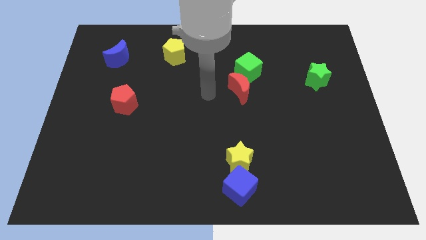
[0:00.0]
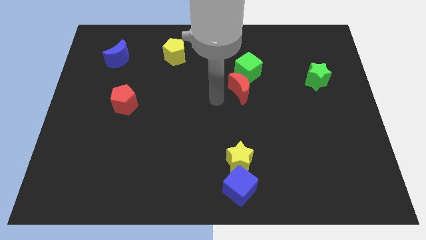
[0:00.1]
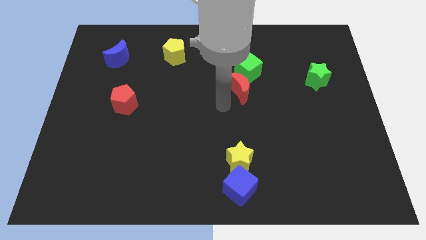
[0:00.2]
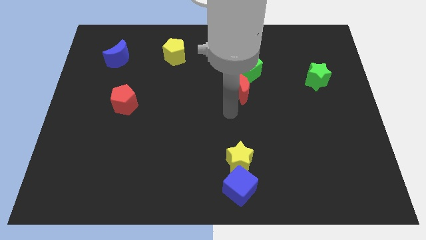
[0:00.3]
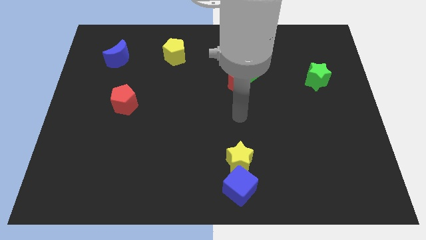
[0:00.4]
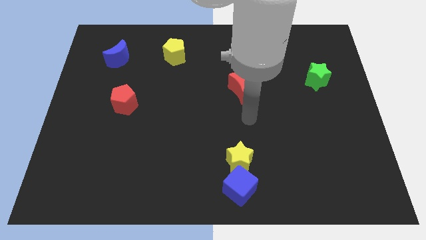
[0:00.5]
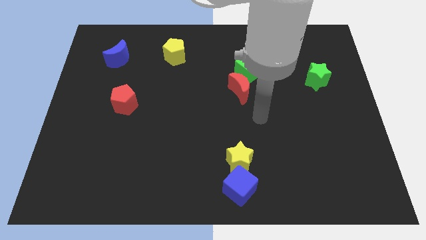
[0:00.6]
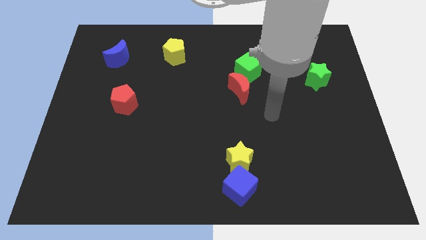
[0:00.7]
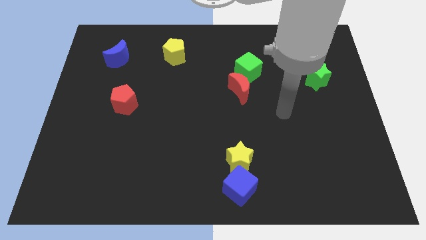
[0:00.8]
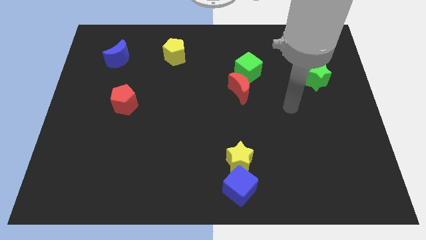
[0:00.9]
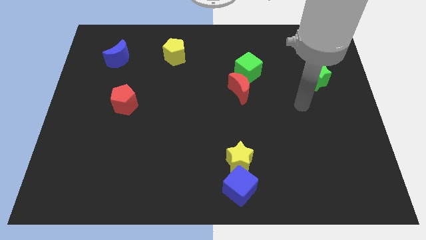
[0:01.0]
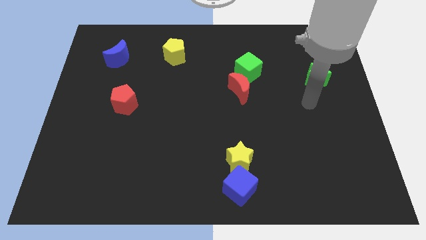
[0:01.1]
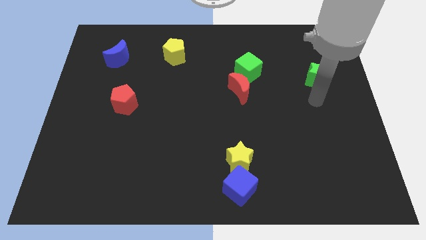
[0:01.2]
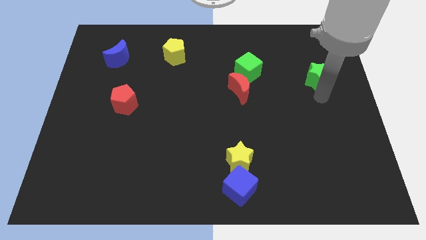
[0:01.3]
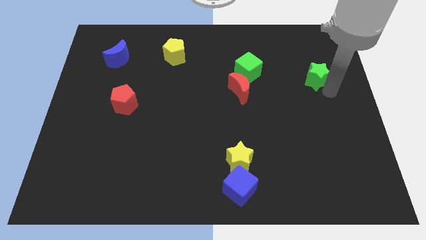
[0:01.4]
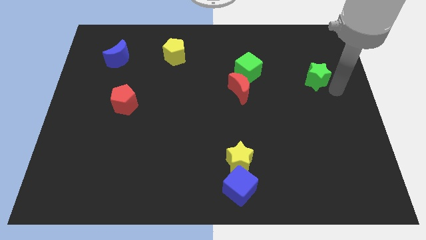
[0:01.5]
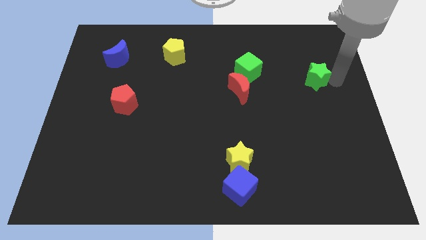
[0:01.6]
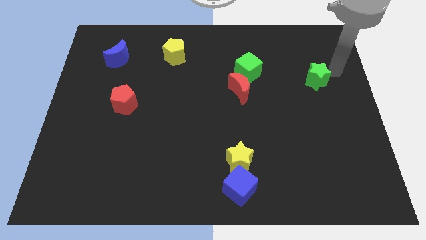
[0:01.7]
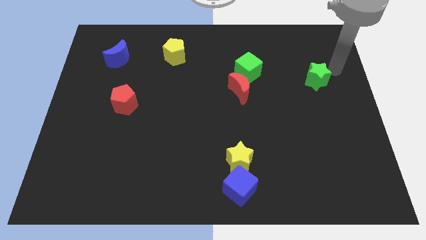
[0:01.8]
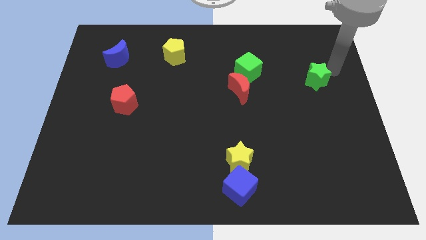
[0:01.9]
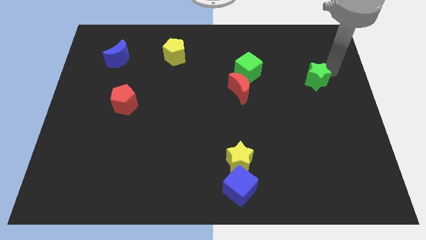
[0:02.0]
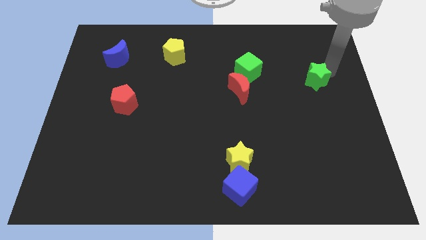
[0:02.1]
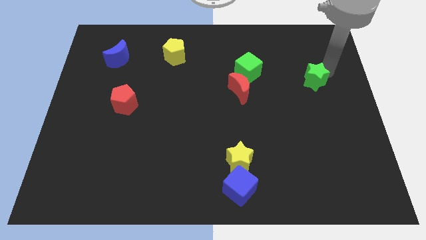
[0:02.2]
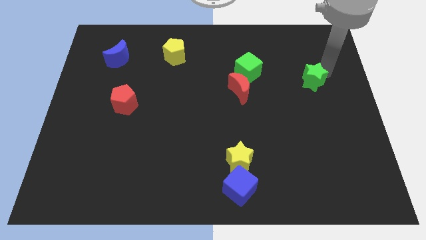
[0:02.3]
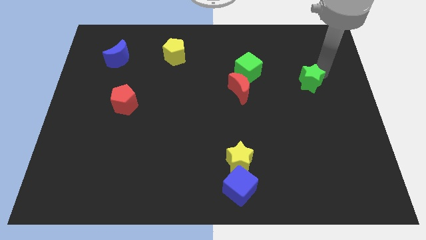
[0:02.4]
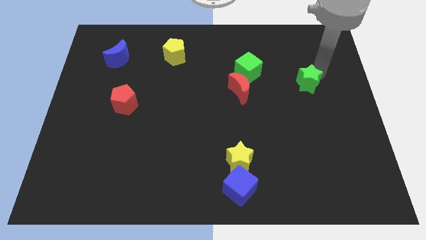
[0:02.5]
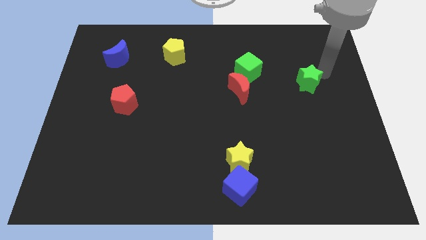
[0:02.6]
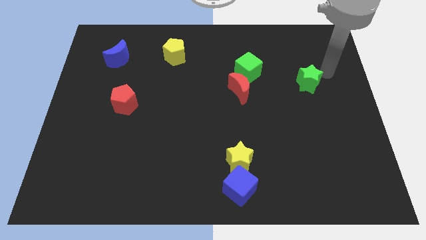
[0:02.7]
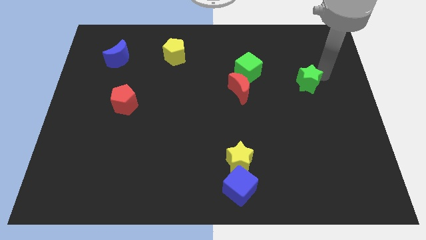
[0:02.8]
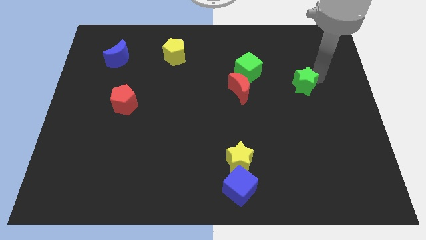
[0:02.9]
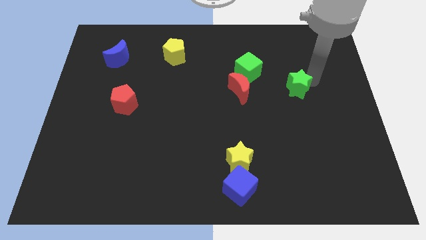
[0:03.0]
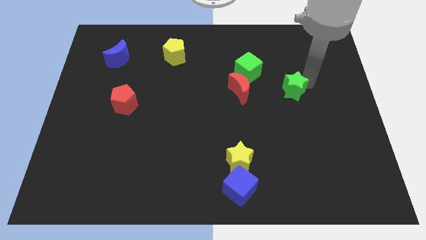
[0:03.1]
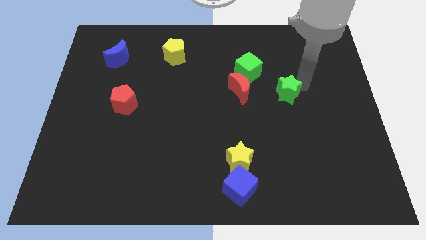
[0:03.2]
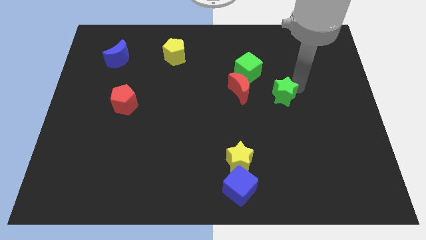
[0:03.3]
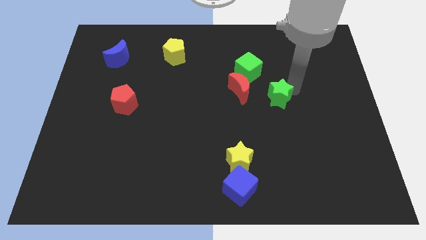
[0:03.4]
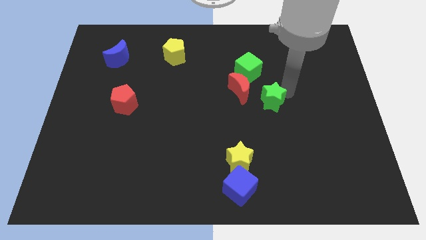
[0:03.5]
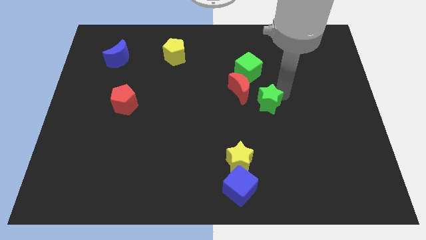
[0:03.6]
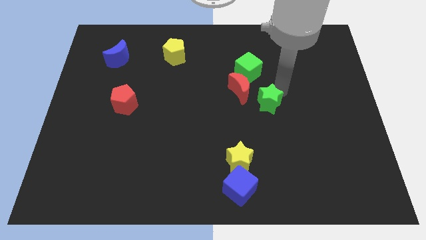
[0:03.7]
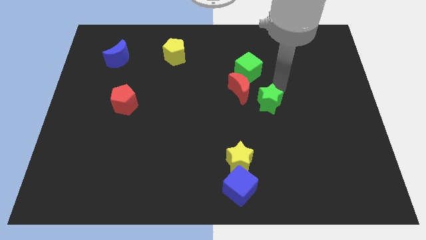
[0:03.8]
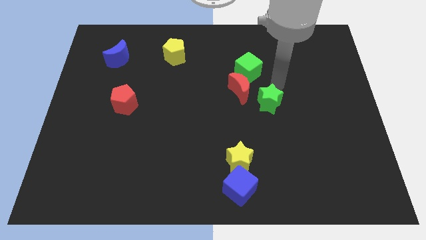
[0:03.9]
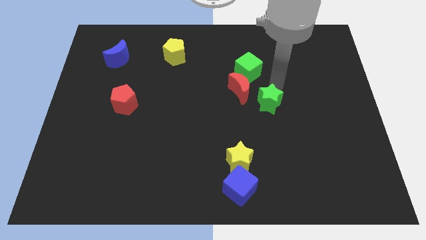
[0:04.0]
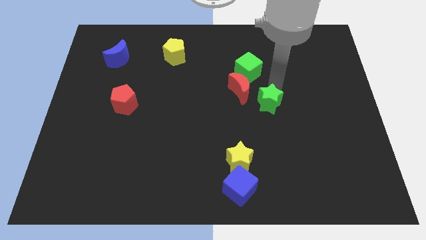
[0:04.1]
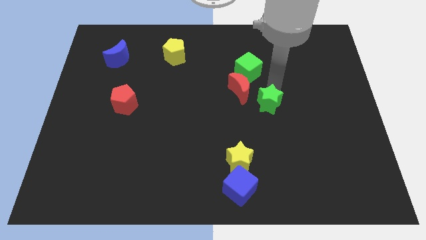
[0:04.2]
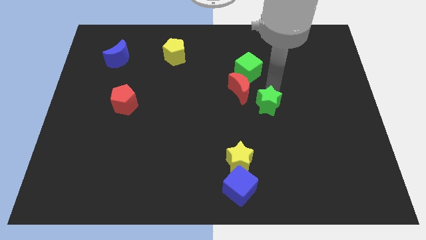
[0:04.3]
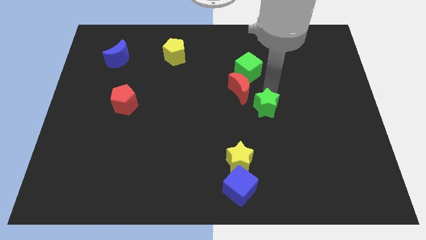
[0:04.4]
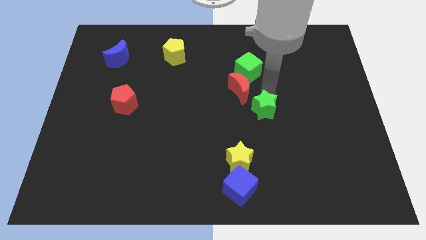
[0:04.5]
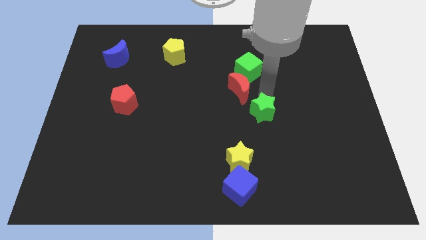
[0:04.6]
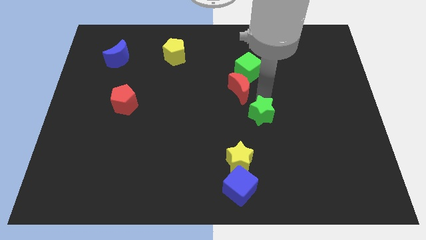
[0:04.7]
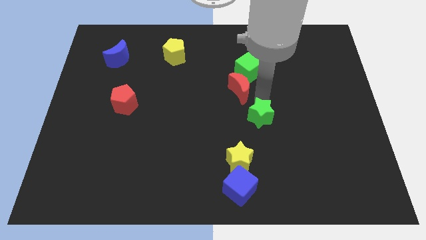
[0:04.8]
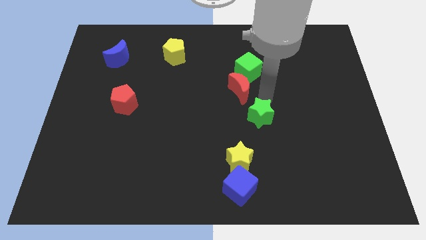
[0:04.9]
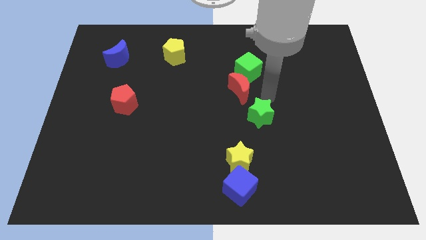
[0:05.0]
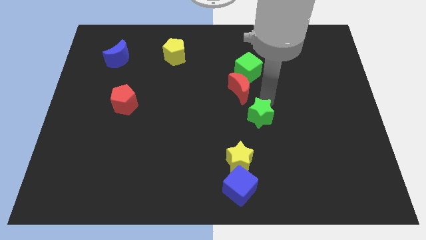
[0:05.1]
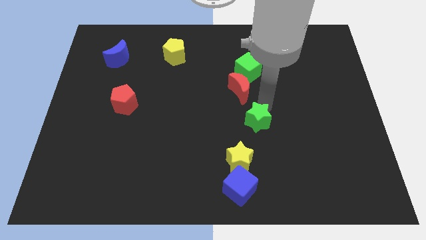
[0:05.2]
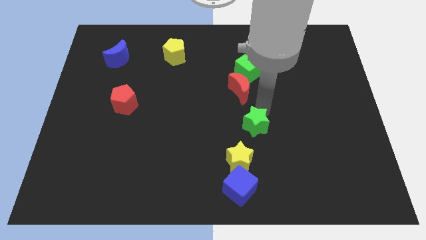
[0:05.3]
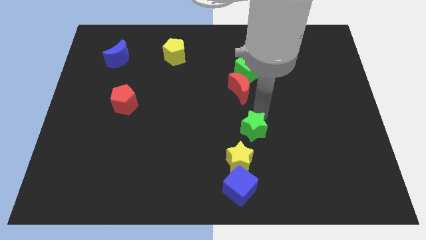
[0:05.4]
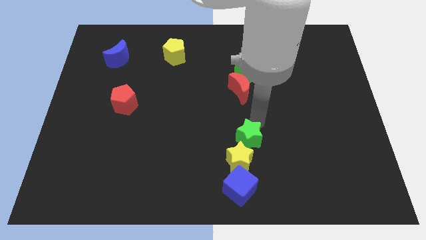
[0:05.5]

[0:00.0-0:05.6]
slide the green star next to the yellow star

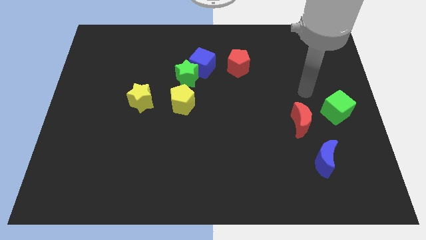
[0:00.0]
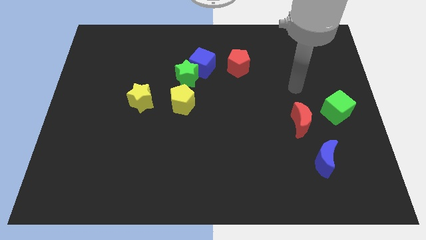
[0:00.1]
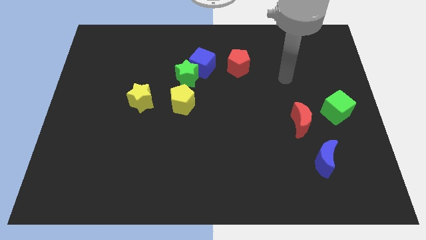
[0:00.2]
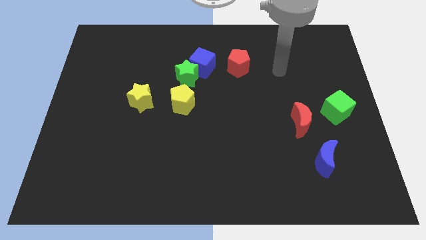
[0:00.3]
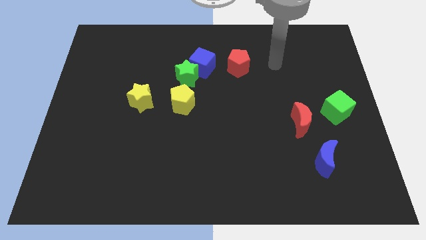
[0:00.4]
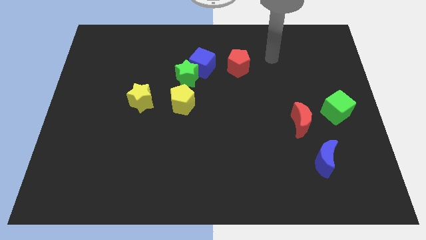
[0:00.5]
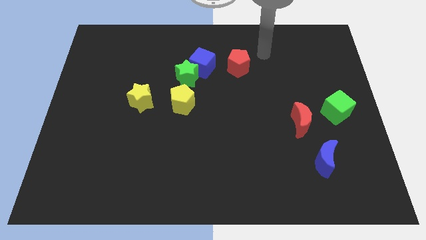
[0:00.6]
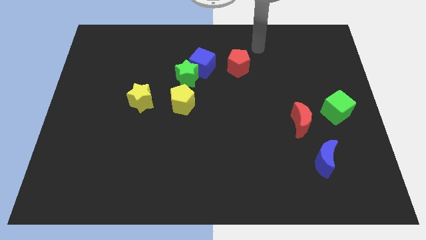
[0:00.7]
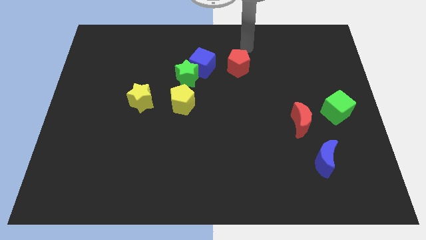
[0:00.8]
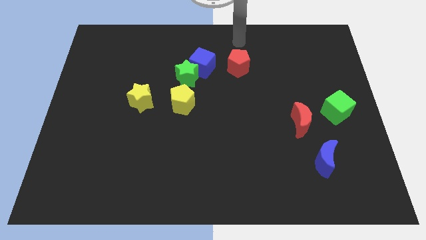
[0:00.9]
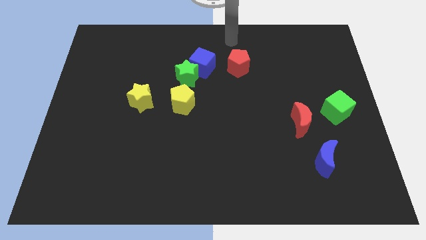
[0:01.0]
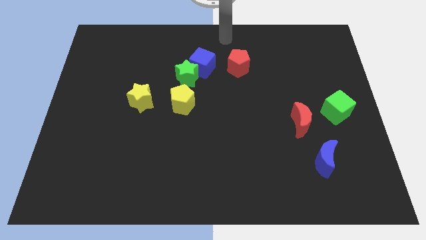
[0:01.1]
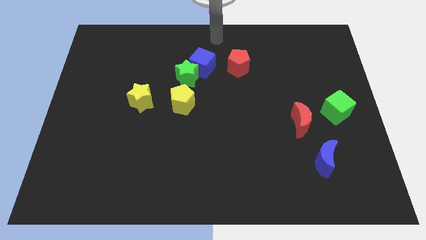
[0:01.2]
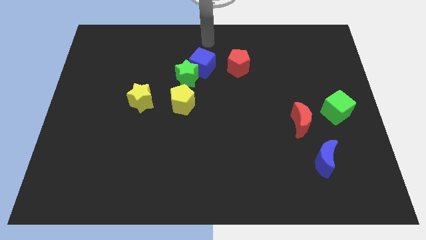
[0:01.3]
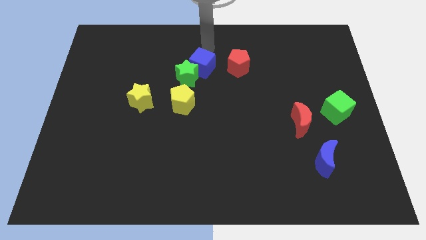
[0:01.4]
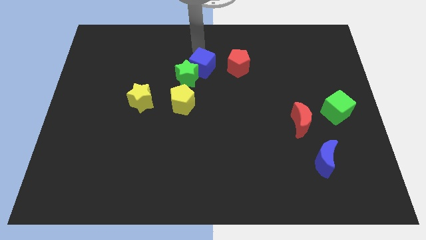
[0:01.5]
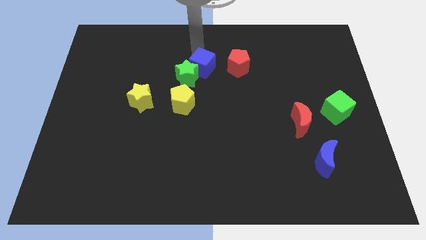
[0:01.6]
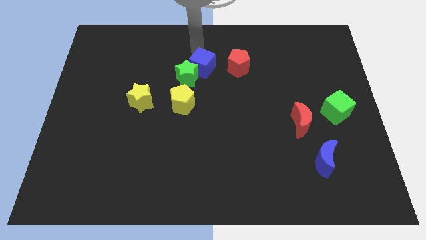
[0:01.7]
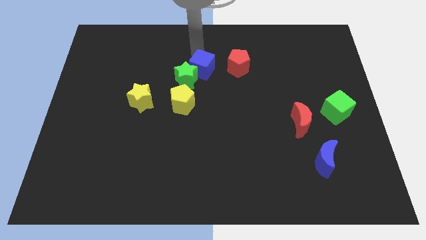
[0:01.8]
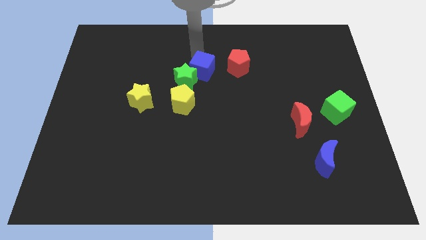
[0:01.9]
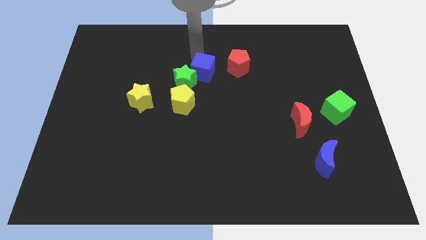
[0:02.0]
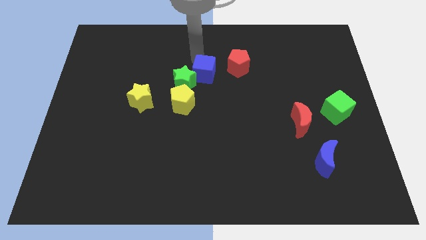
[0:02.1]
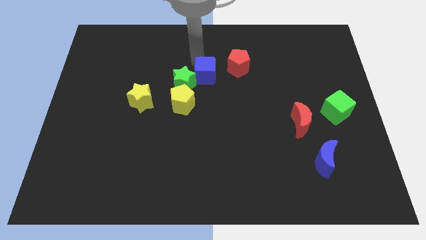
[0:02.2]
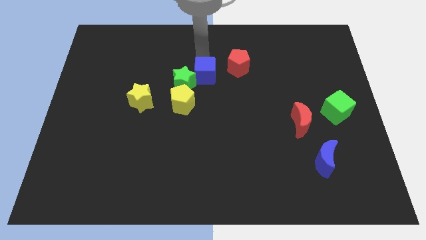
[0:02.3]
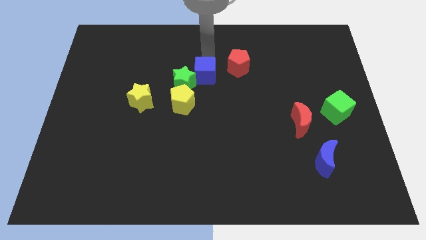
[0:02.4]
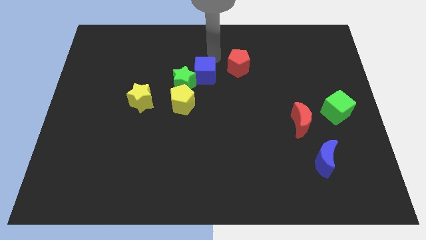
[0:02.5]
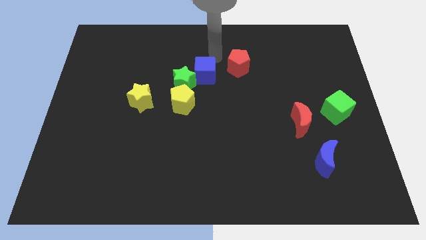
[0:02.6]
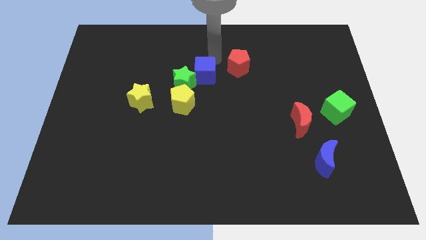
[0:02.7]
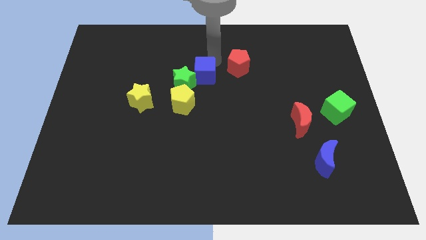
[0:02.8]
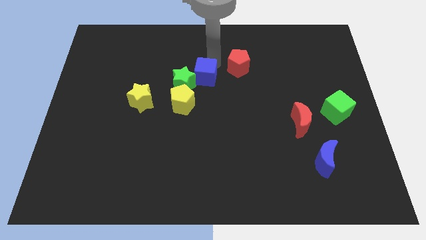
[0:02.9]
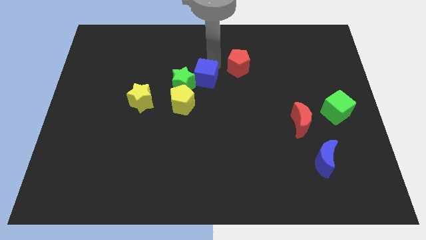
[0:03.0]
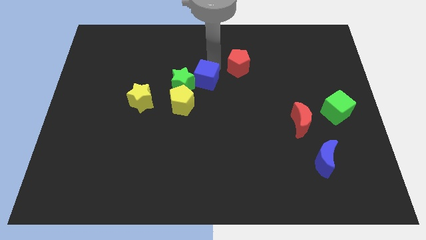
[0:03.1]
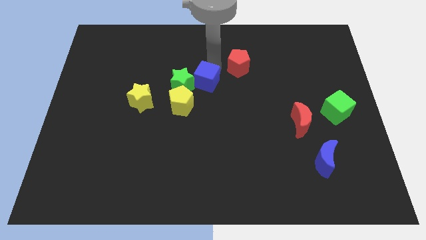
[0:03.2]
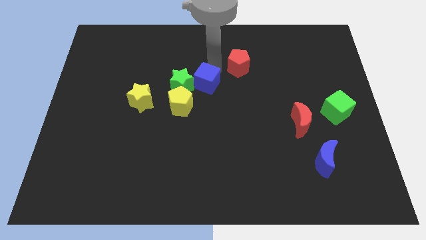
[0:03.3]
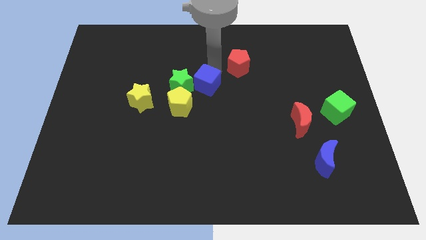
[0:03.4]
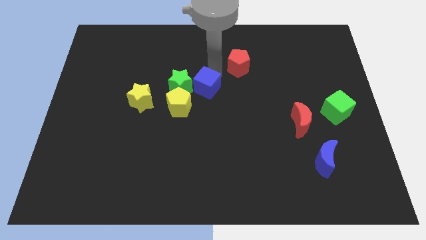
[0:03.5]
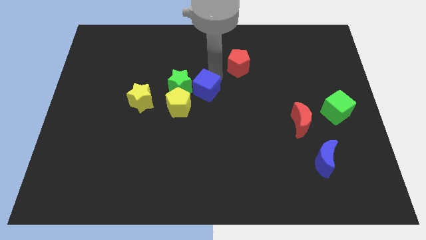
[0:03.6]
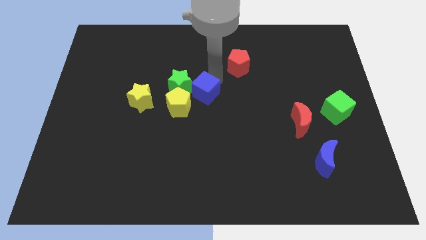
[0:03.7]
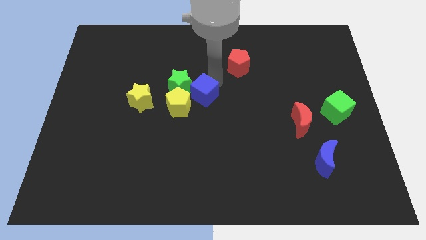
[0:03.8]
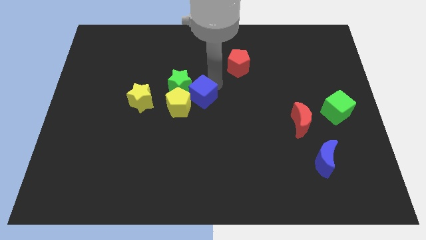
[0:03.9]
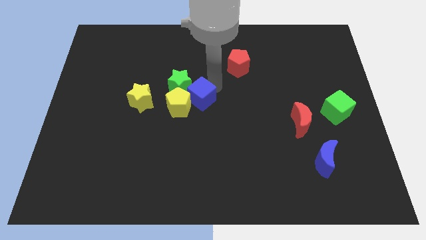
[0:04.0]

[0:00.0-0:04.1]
put the blue cube close to the yellow pentagon
